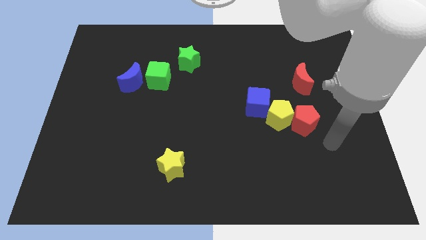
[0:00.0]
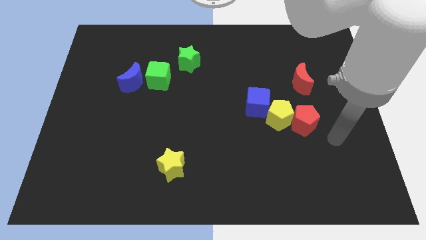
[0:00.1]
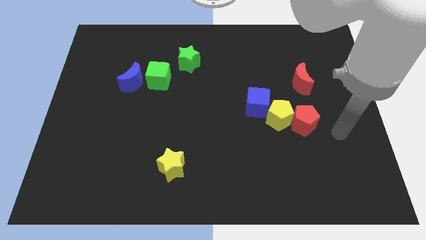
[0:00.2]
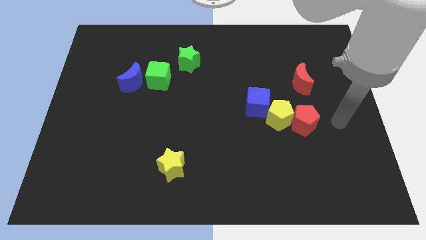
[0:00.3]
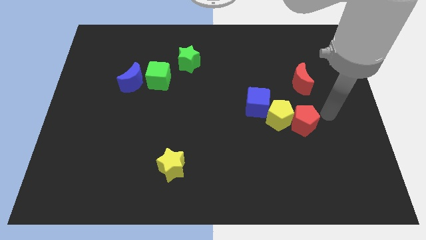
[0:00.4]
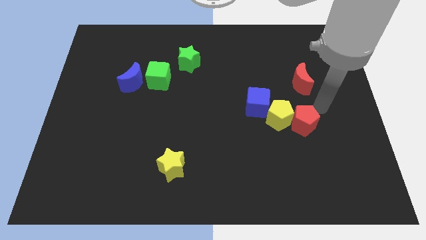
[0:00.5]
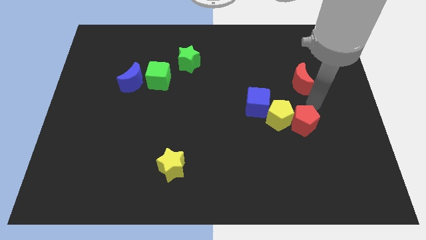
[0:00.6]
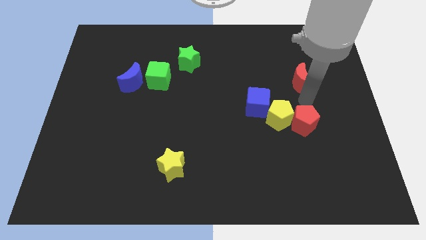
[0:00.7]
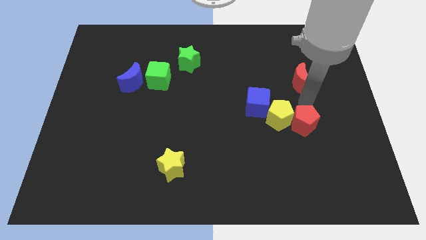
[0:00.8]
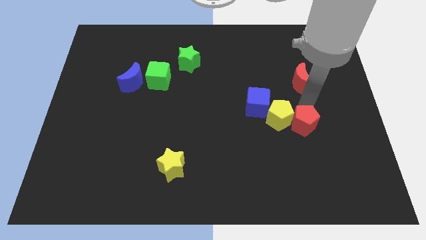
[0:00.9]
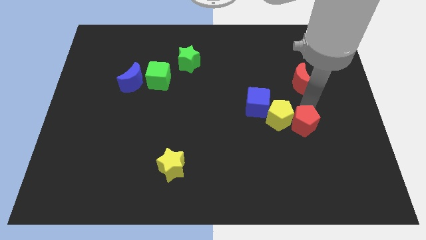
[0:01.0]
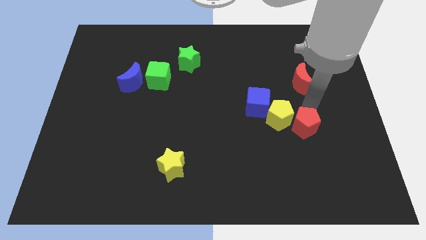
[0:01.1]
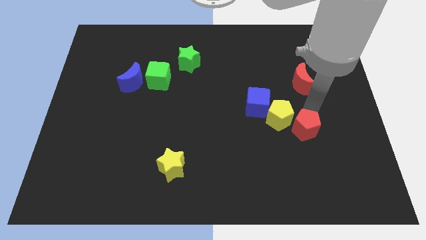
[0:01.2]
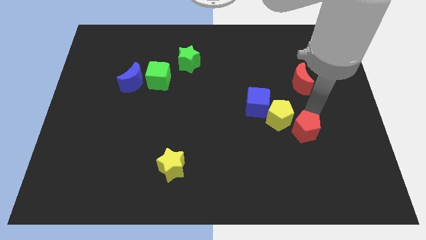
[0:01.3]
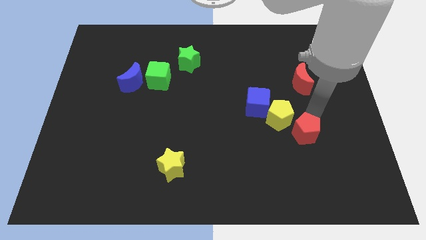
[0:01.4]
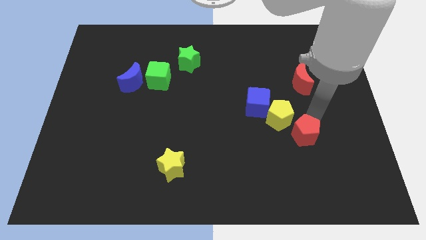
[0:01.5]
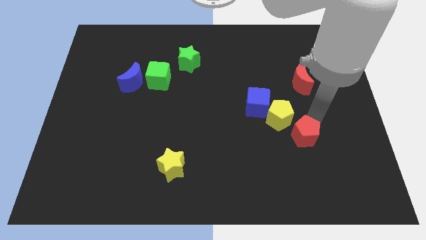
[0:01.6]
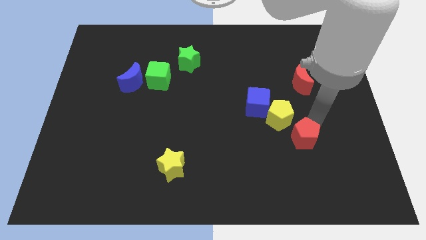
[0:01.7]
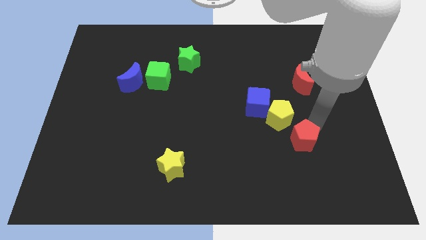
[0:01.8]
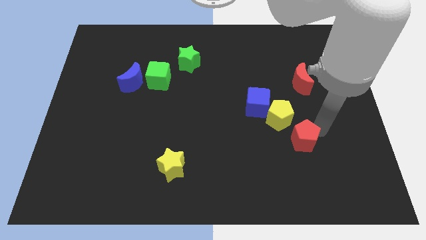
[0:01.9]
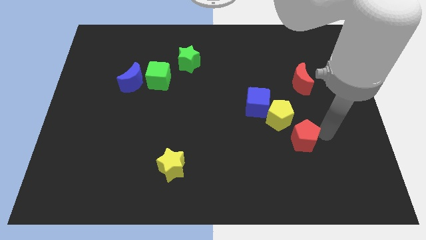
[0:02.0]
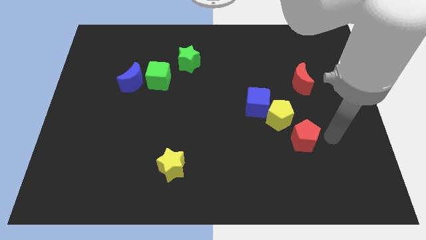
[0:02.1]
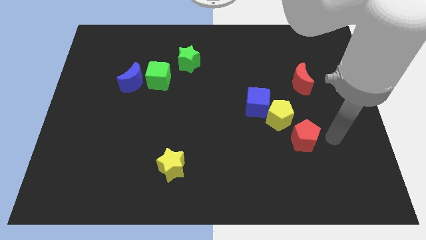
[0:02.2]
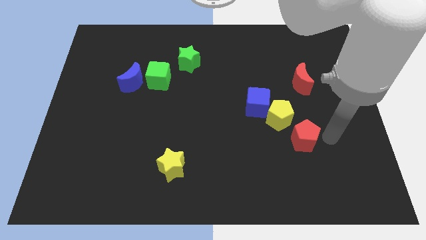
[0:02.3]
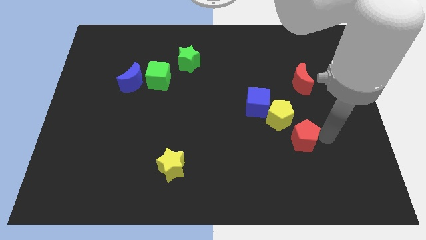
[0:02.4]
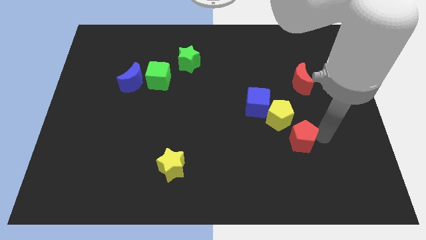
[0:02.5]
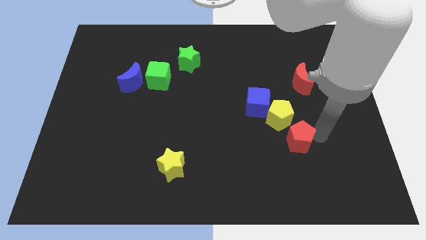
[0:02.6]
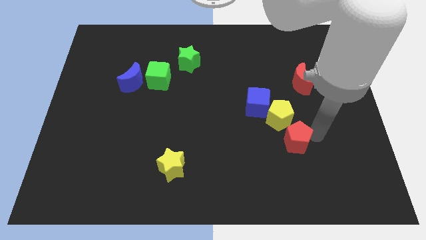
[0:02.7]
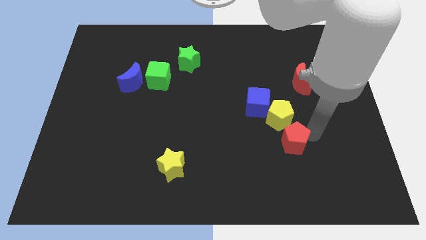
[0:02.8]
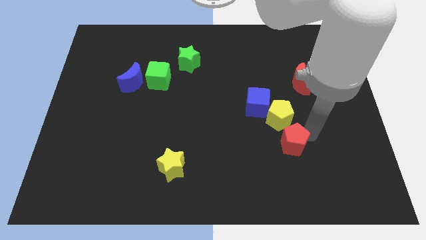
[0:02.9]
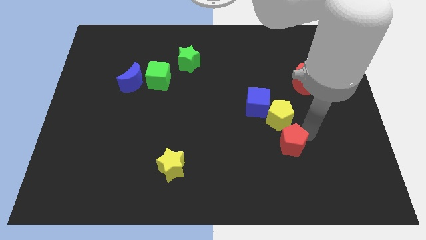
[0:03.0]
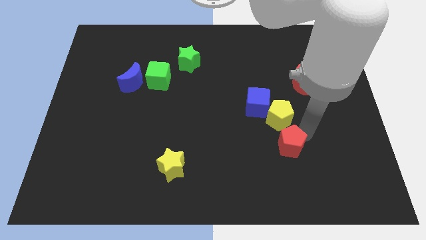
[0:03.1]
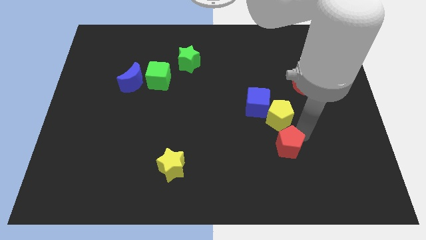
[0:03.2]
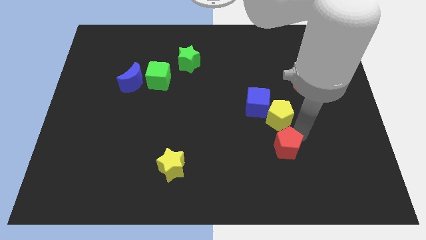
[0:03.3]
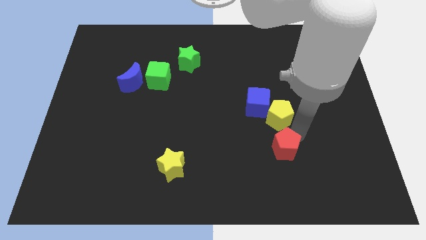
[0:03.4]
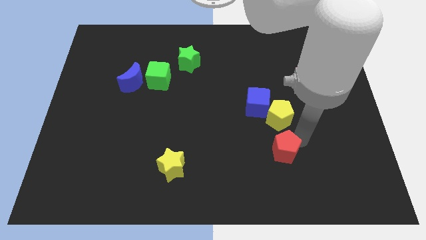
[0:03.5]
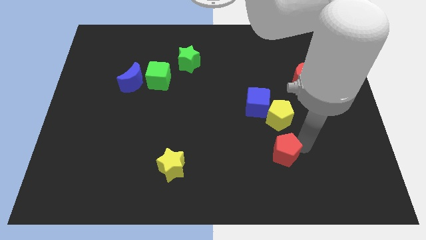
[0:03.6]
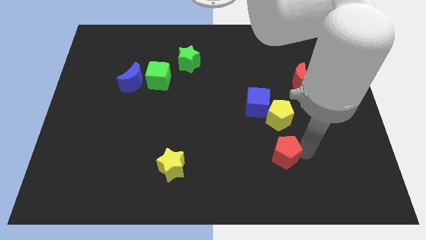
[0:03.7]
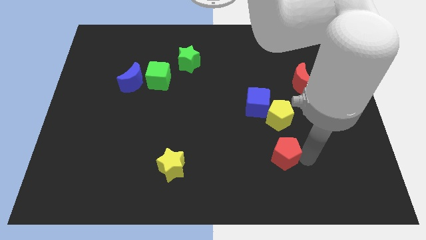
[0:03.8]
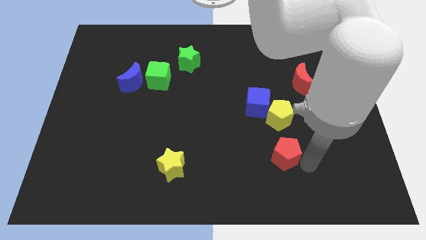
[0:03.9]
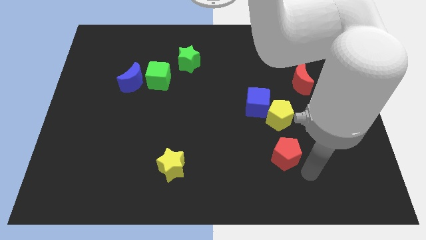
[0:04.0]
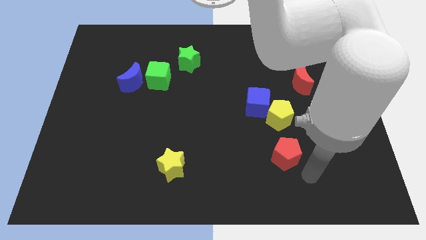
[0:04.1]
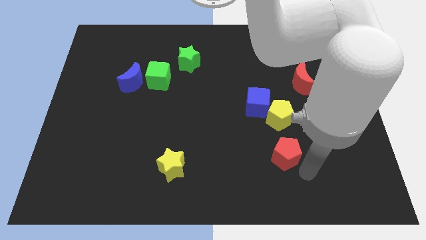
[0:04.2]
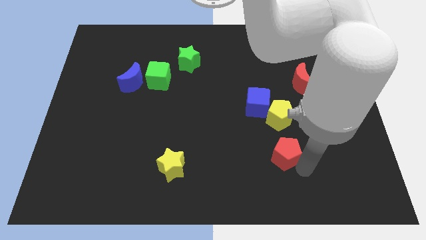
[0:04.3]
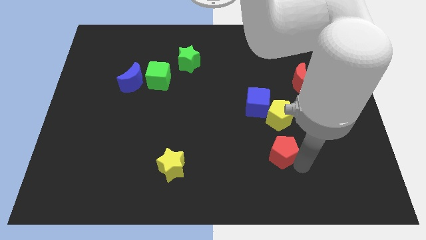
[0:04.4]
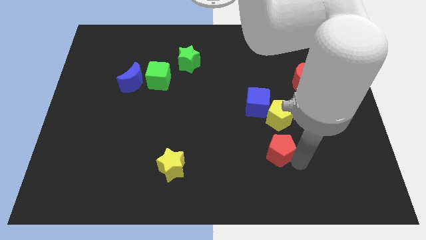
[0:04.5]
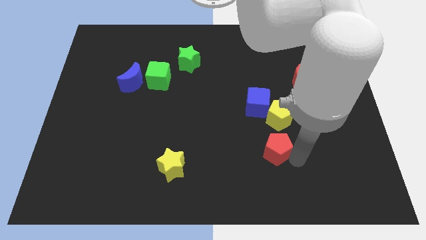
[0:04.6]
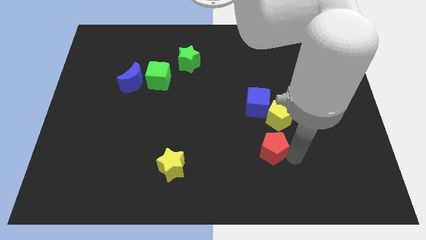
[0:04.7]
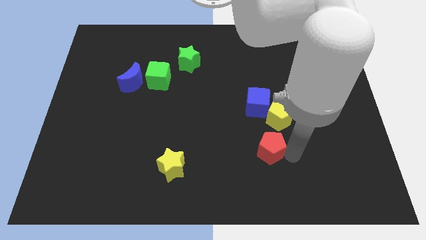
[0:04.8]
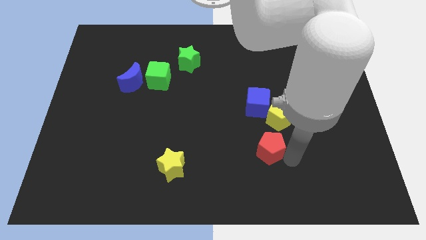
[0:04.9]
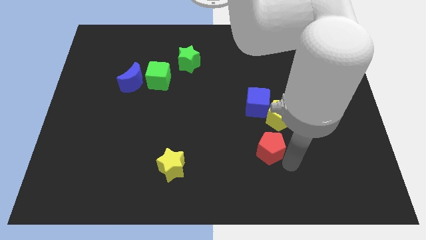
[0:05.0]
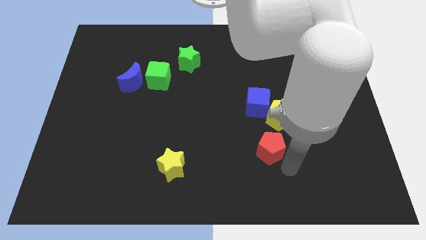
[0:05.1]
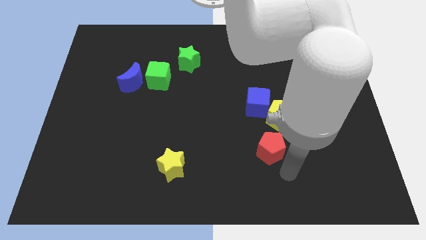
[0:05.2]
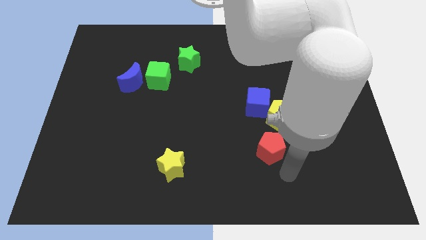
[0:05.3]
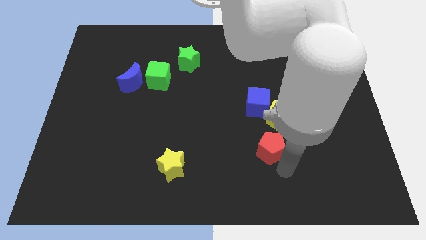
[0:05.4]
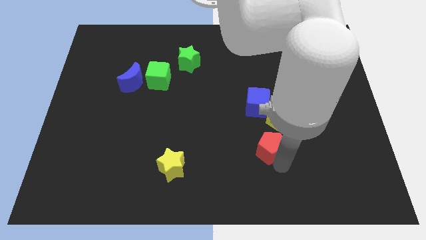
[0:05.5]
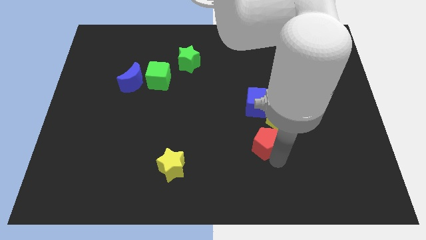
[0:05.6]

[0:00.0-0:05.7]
slightly push the red pentagon to the left

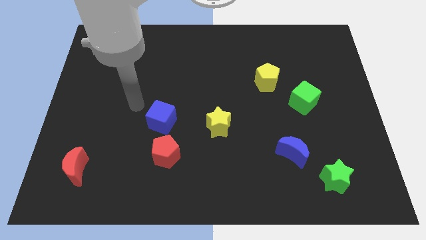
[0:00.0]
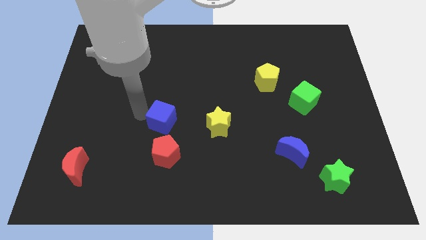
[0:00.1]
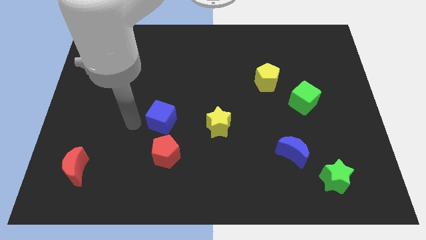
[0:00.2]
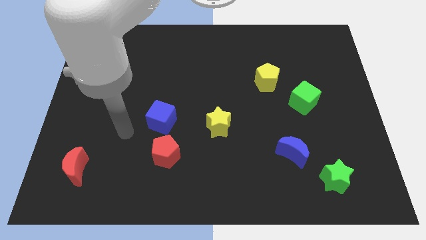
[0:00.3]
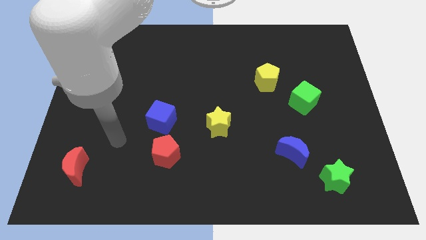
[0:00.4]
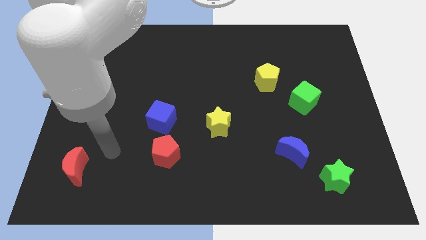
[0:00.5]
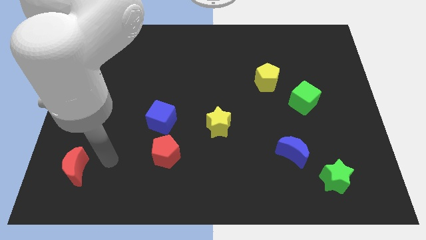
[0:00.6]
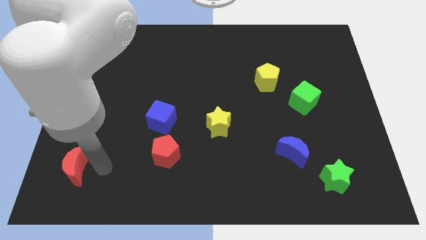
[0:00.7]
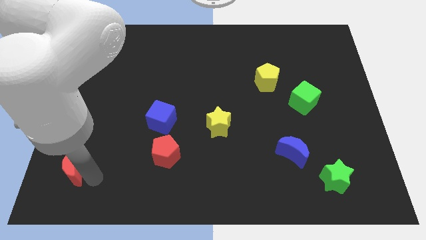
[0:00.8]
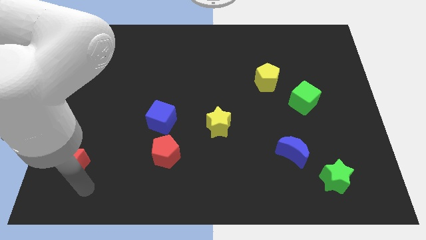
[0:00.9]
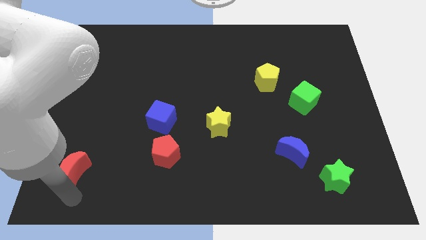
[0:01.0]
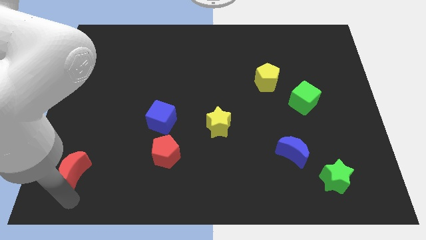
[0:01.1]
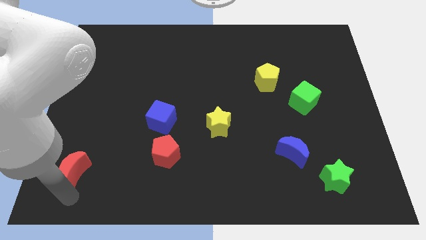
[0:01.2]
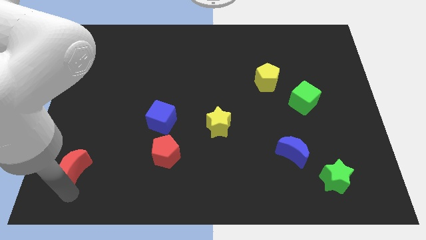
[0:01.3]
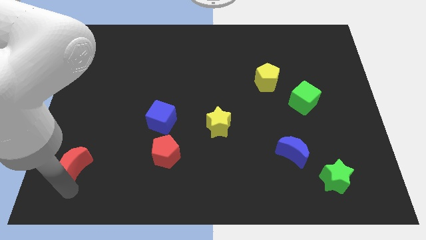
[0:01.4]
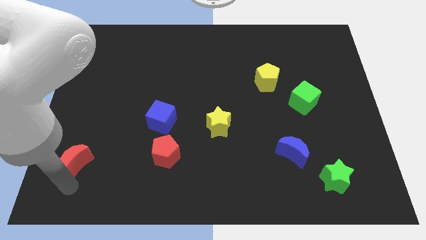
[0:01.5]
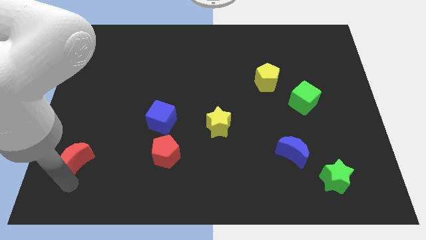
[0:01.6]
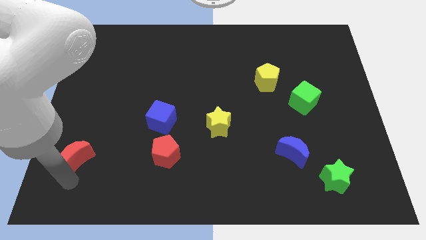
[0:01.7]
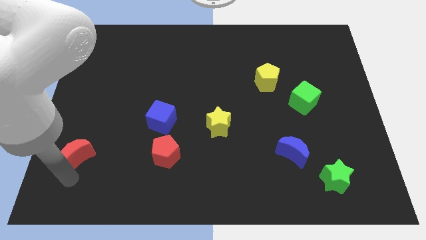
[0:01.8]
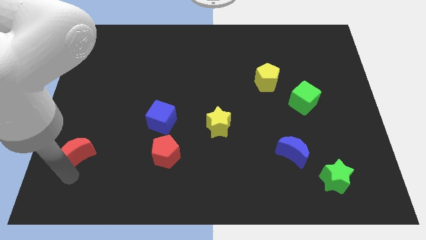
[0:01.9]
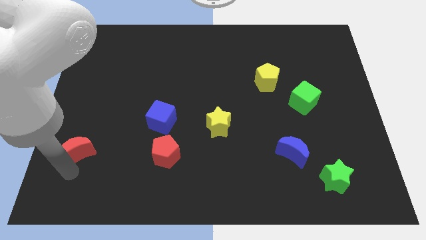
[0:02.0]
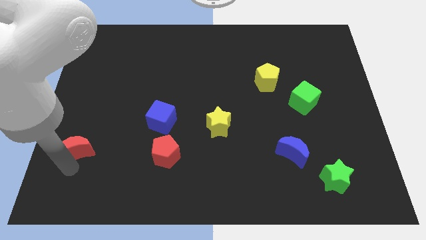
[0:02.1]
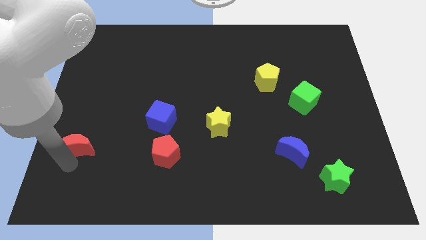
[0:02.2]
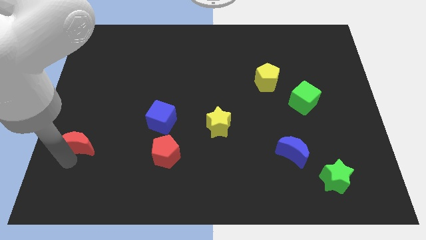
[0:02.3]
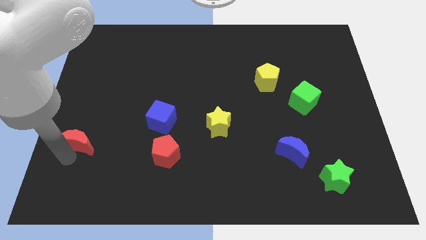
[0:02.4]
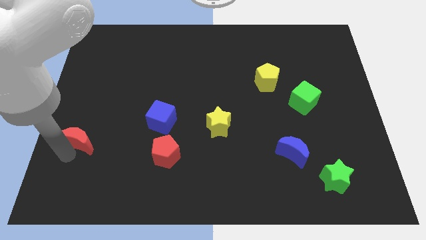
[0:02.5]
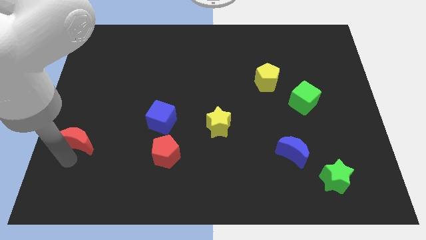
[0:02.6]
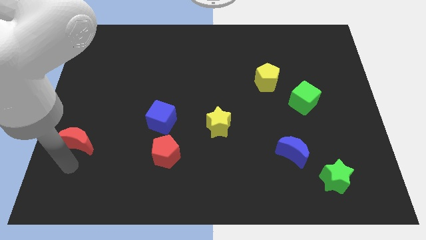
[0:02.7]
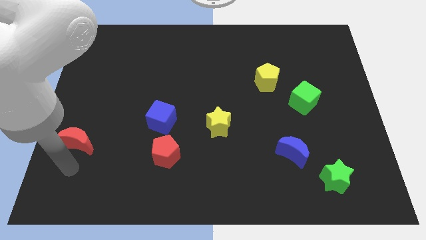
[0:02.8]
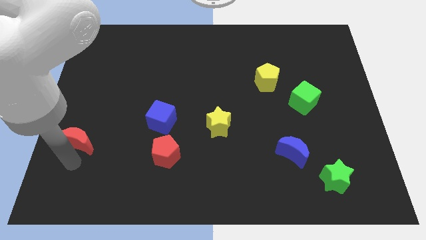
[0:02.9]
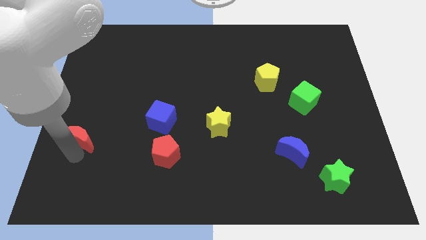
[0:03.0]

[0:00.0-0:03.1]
slide the red moon slightly up
